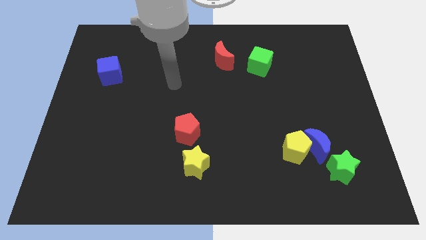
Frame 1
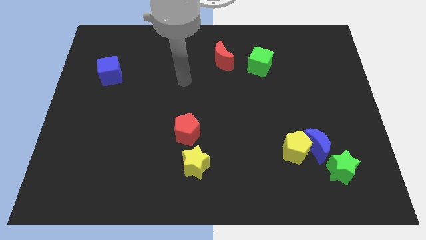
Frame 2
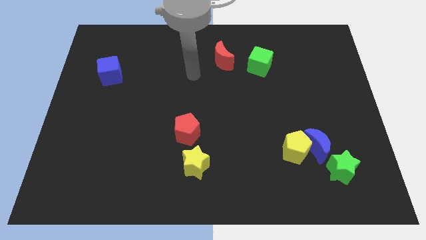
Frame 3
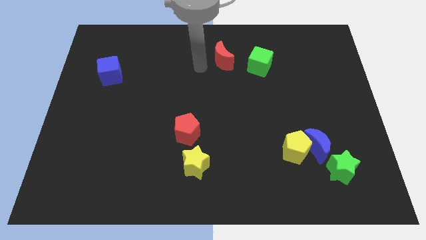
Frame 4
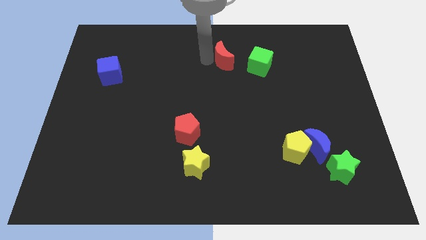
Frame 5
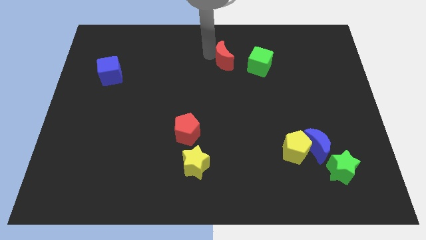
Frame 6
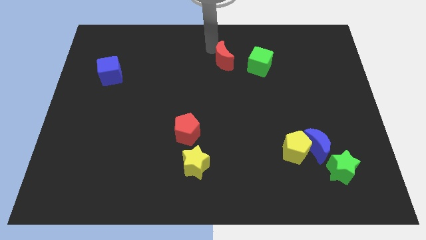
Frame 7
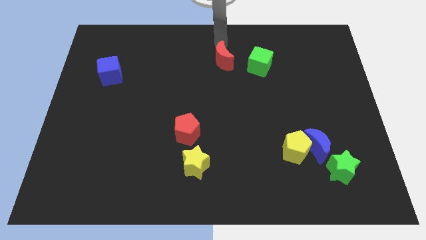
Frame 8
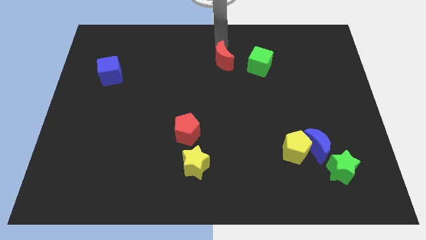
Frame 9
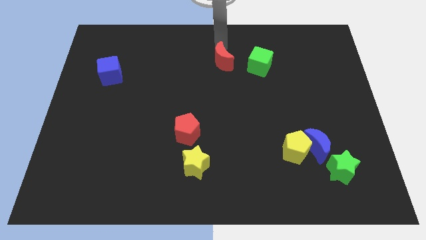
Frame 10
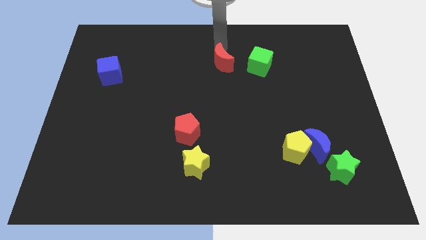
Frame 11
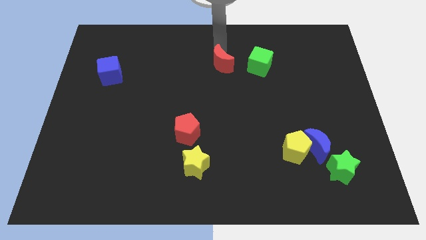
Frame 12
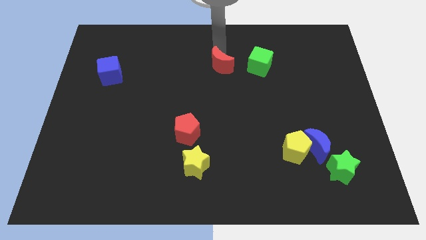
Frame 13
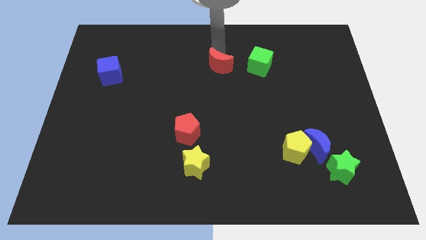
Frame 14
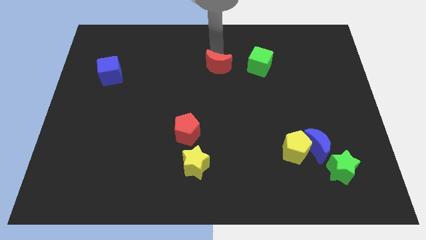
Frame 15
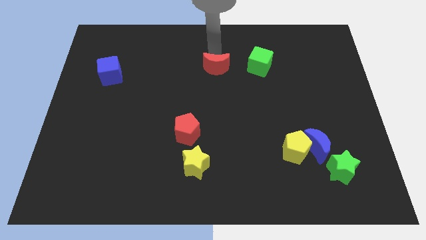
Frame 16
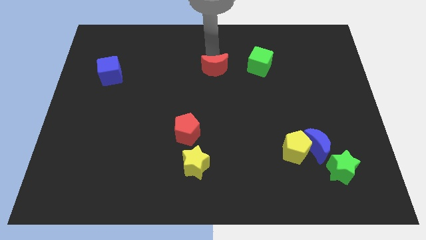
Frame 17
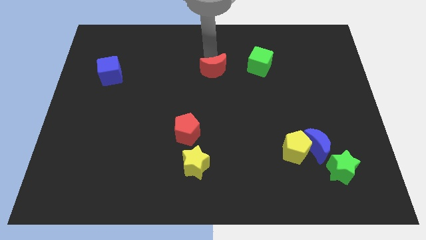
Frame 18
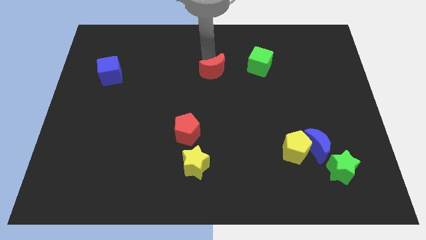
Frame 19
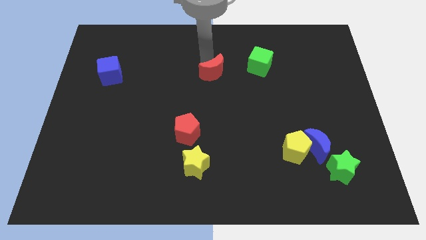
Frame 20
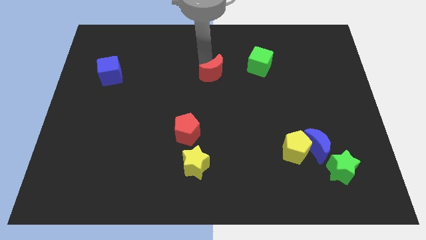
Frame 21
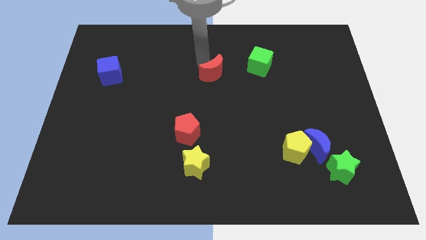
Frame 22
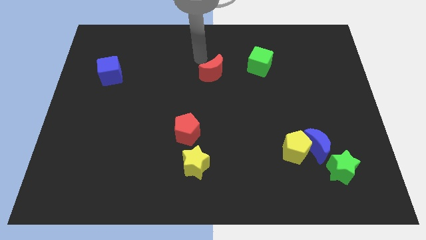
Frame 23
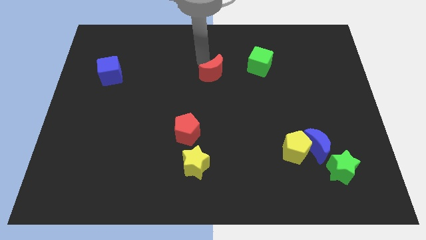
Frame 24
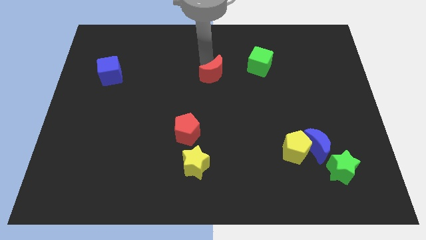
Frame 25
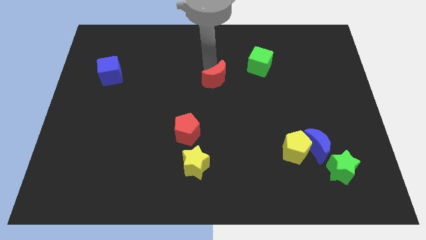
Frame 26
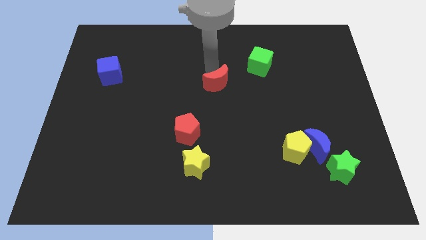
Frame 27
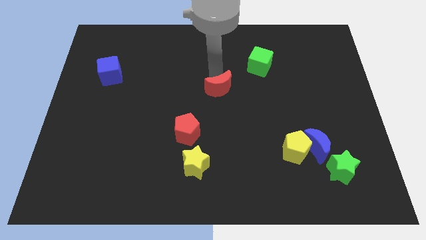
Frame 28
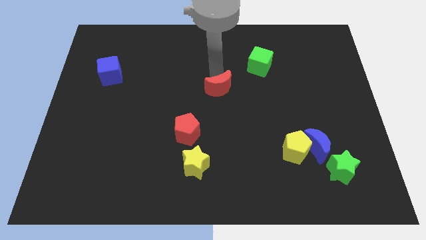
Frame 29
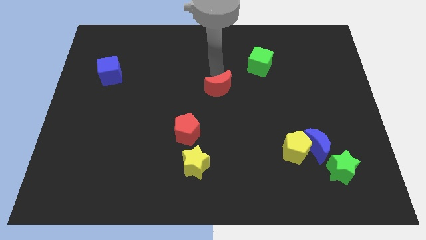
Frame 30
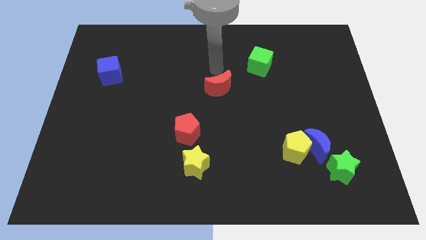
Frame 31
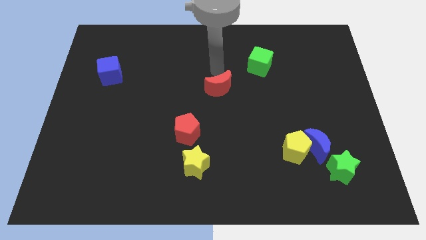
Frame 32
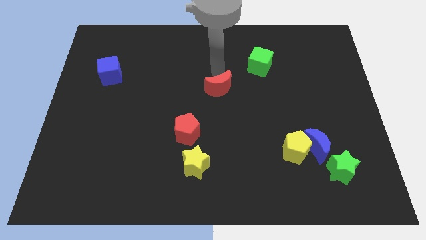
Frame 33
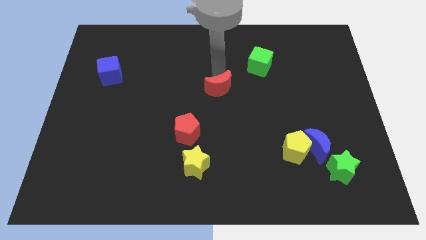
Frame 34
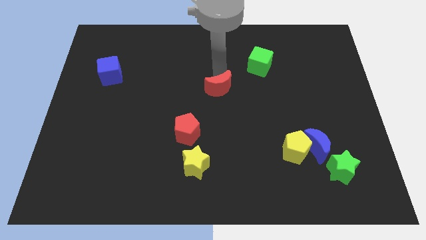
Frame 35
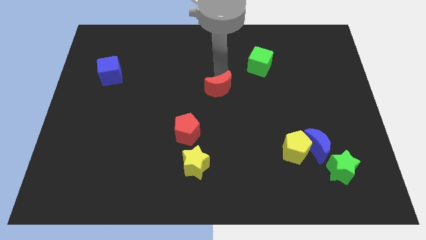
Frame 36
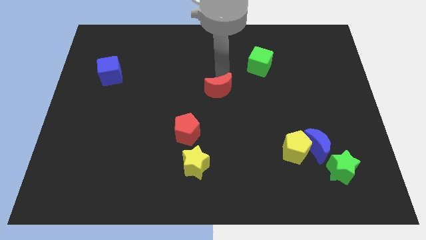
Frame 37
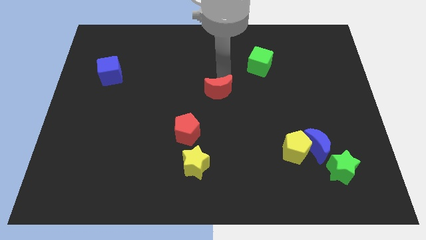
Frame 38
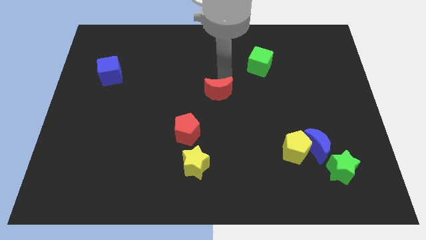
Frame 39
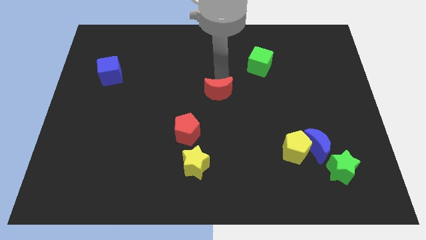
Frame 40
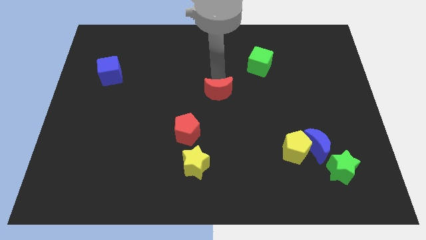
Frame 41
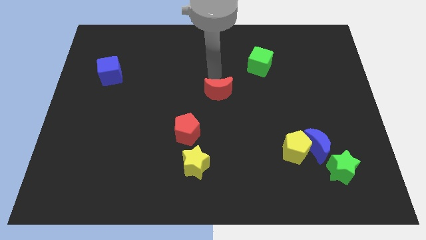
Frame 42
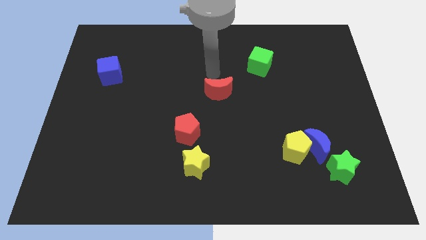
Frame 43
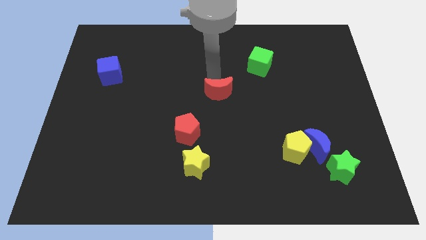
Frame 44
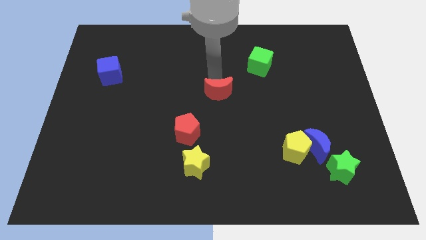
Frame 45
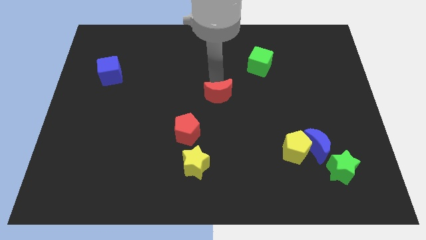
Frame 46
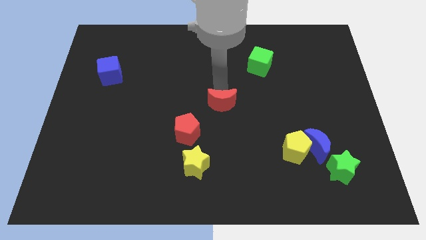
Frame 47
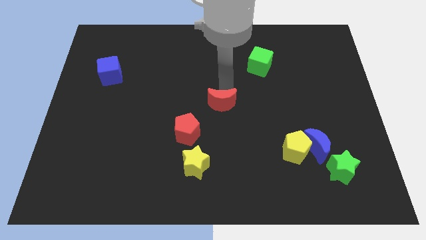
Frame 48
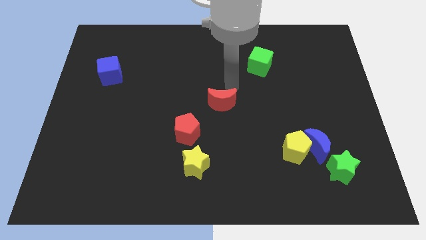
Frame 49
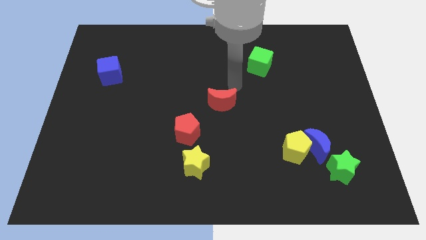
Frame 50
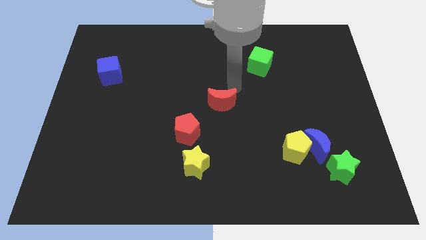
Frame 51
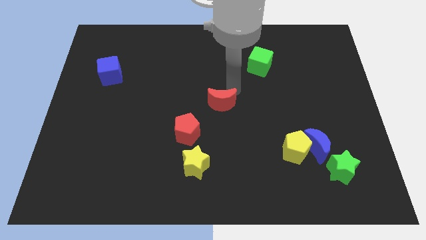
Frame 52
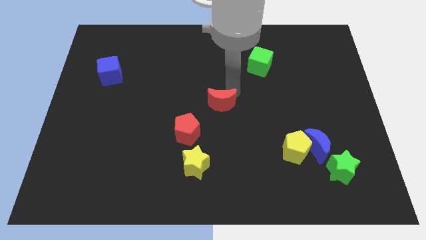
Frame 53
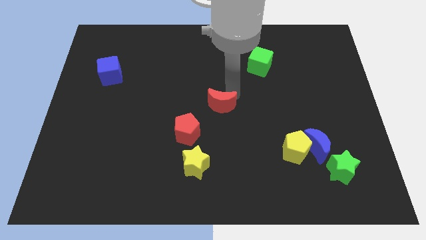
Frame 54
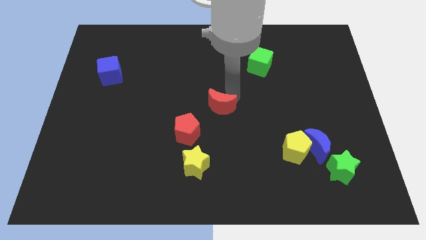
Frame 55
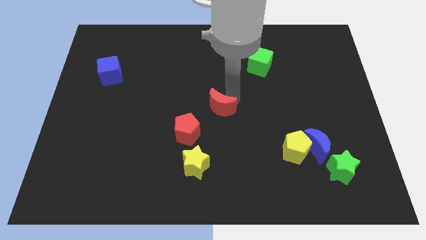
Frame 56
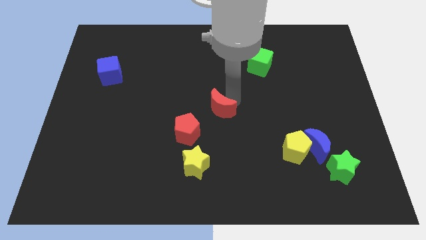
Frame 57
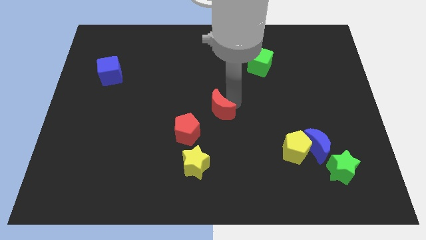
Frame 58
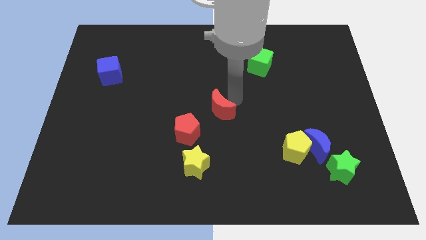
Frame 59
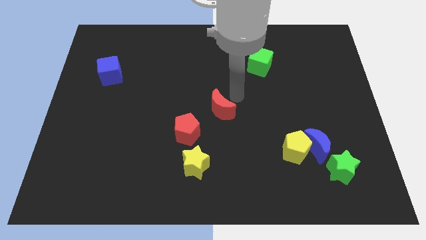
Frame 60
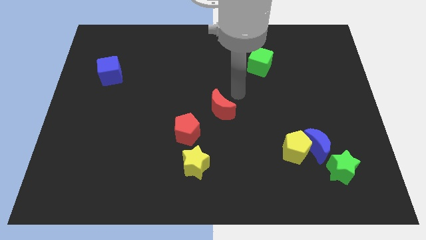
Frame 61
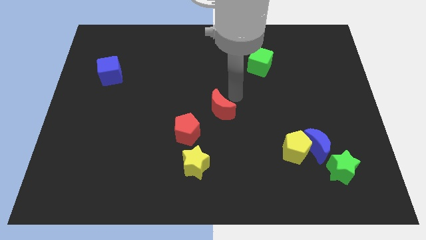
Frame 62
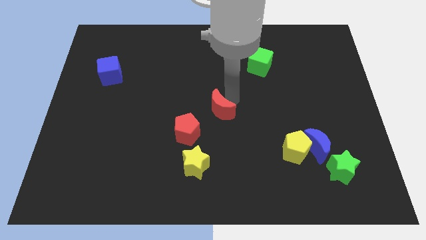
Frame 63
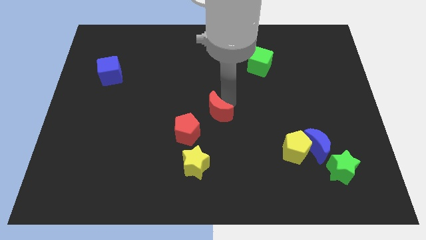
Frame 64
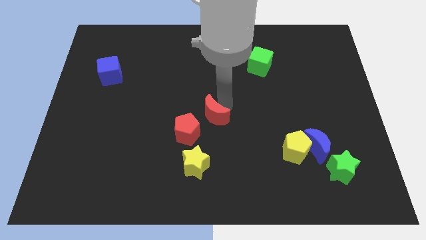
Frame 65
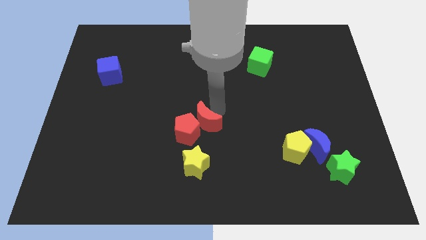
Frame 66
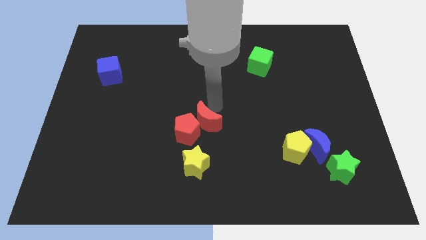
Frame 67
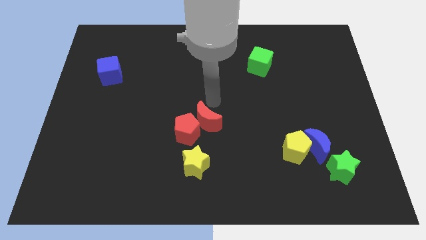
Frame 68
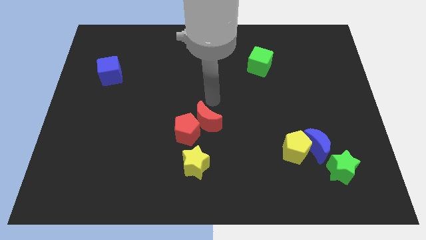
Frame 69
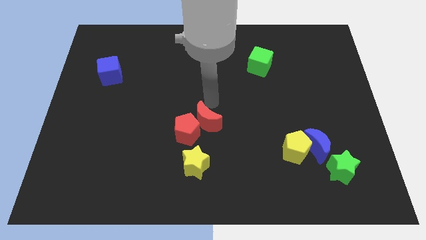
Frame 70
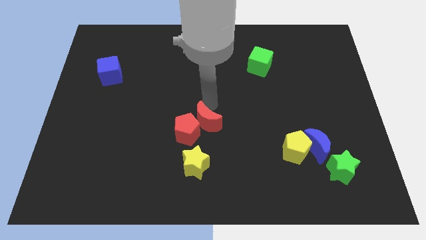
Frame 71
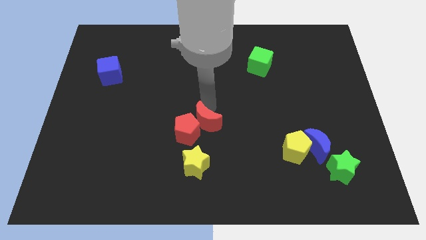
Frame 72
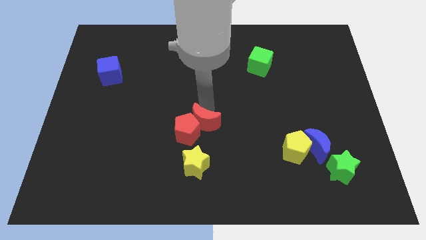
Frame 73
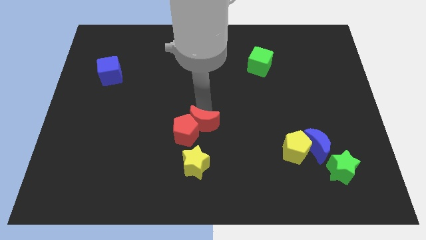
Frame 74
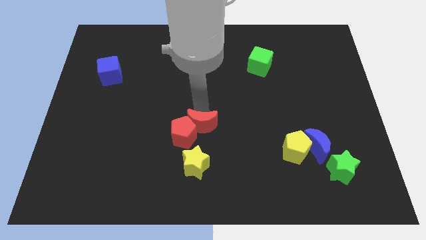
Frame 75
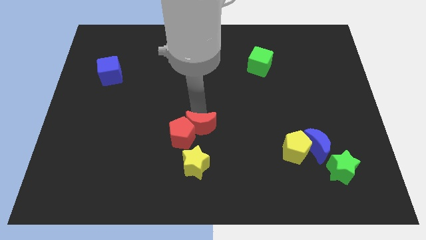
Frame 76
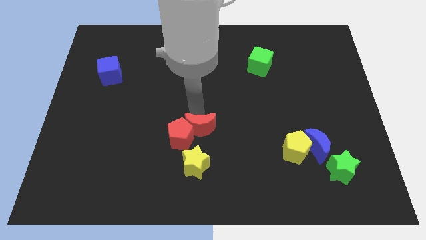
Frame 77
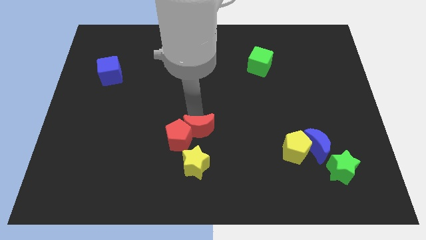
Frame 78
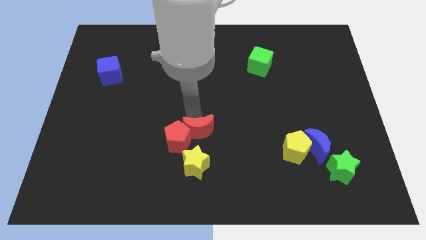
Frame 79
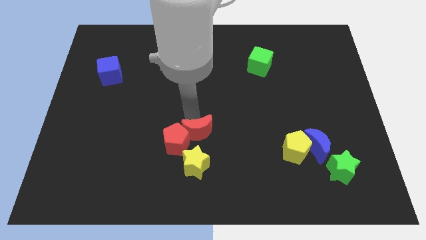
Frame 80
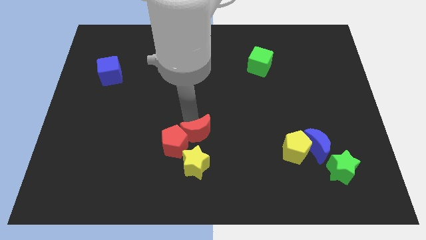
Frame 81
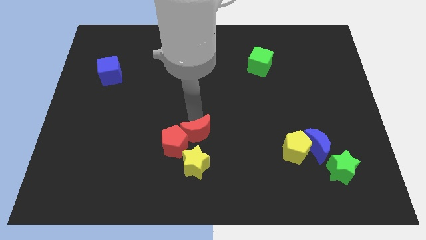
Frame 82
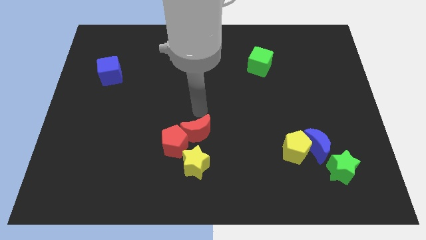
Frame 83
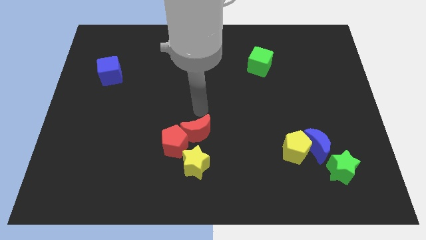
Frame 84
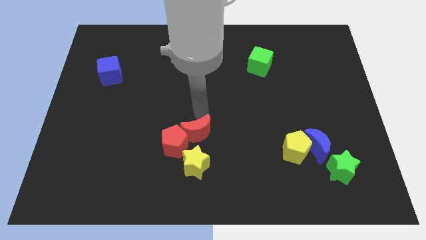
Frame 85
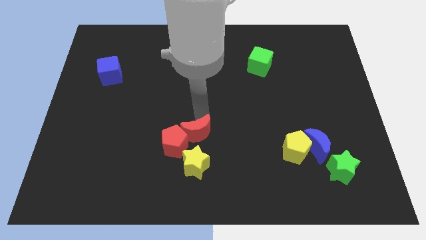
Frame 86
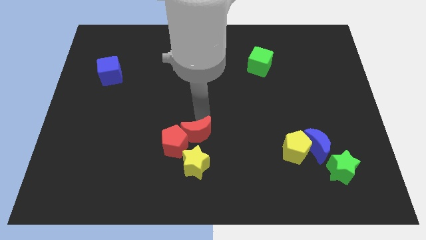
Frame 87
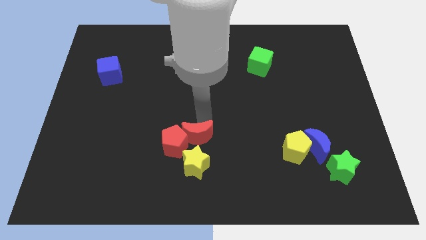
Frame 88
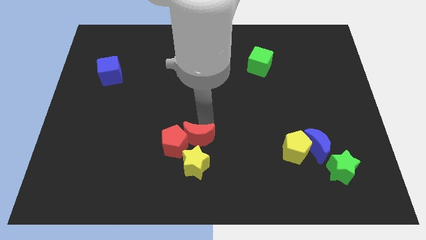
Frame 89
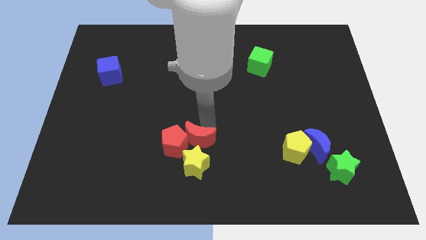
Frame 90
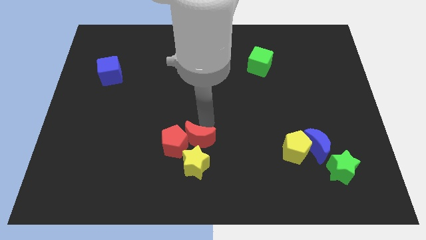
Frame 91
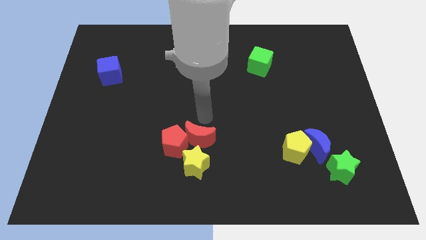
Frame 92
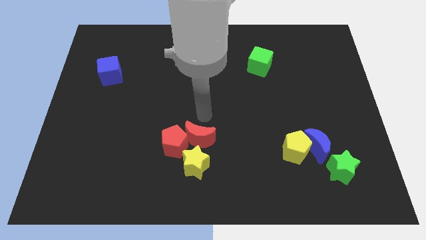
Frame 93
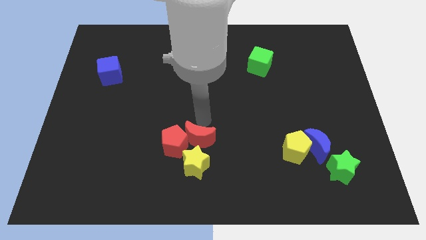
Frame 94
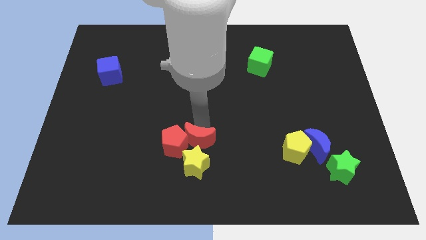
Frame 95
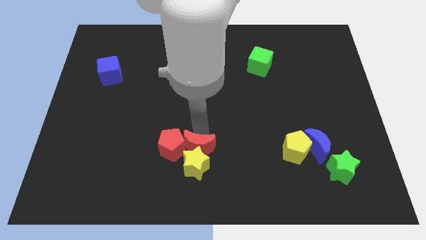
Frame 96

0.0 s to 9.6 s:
move the red moon next to the yellow star
